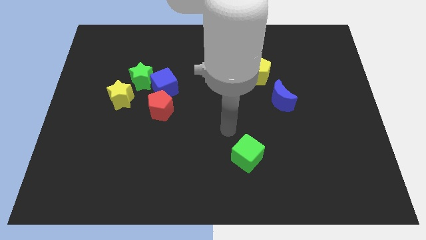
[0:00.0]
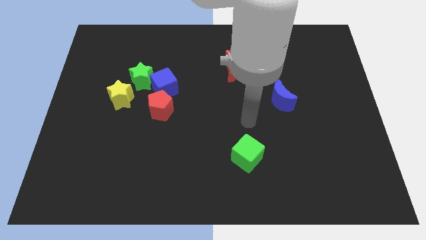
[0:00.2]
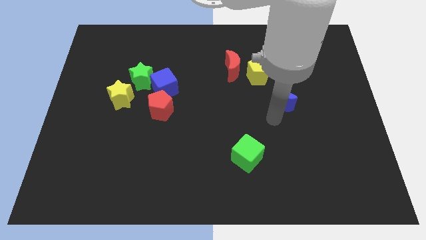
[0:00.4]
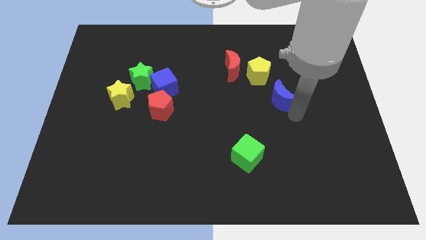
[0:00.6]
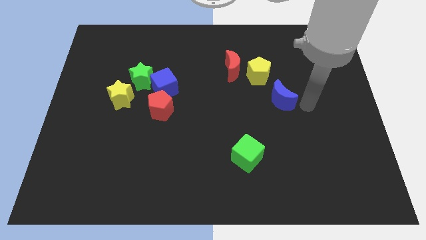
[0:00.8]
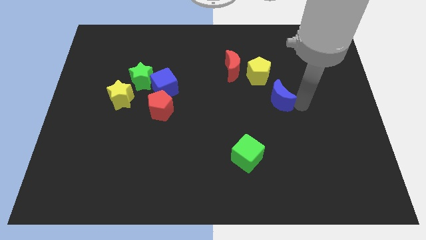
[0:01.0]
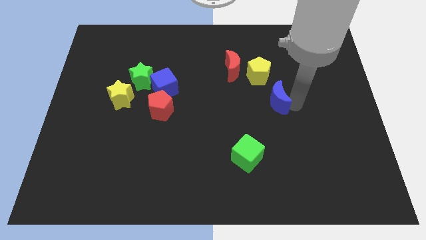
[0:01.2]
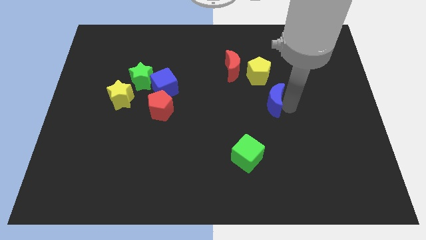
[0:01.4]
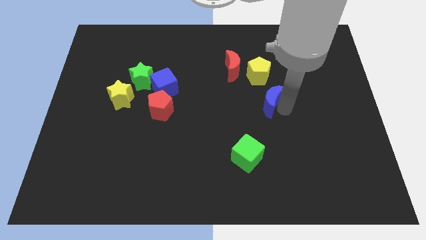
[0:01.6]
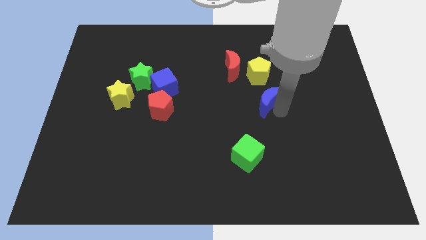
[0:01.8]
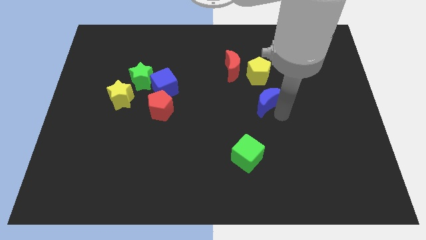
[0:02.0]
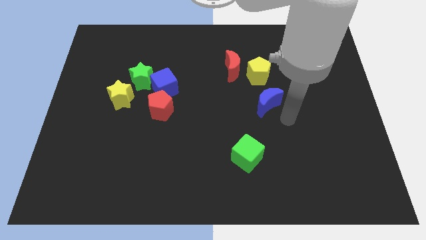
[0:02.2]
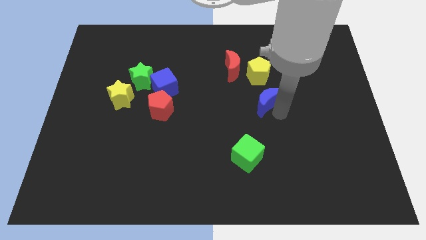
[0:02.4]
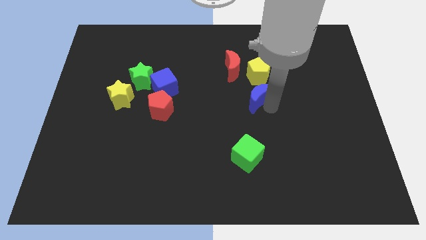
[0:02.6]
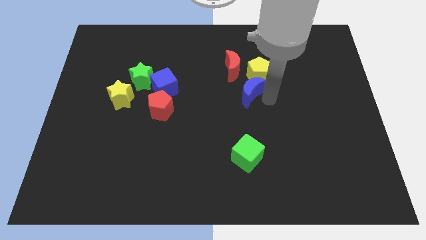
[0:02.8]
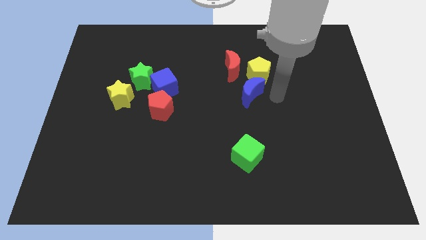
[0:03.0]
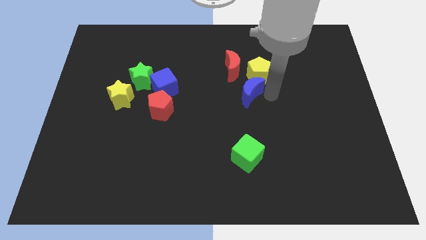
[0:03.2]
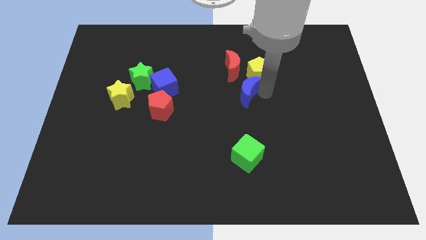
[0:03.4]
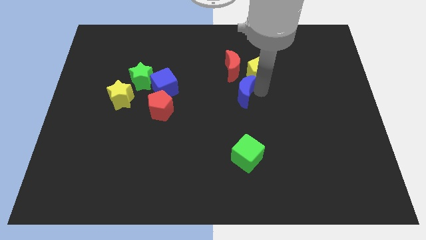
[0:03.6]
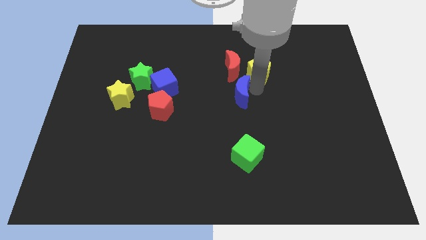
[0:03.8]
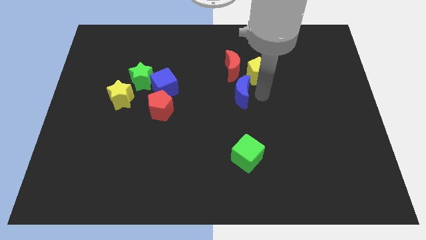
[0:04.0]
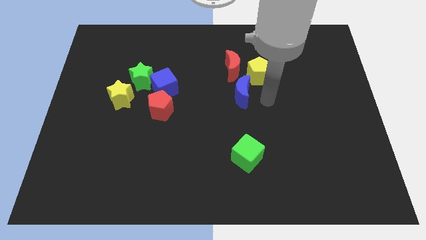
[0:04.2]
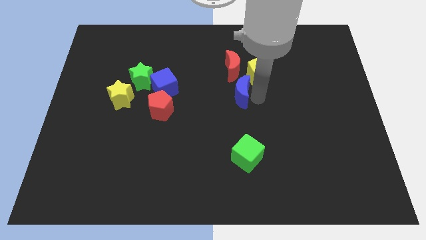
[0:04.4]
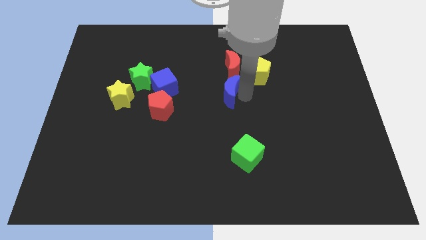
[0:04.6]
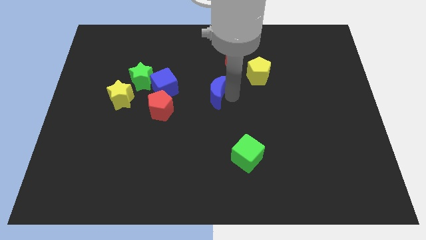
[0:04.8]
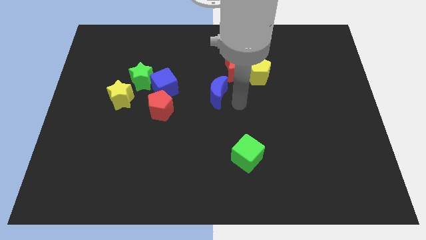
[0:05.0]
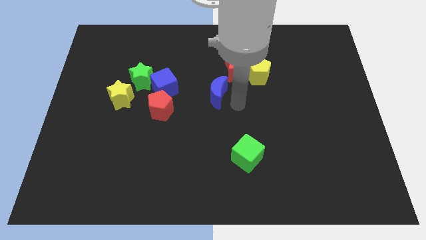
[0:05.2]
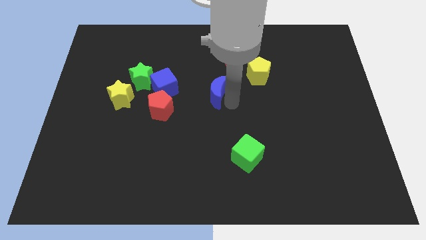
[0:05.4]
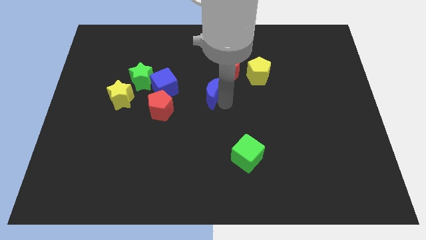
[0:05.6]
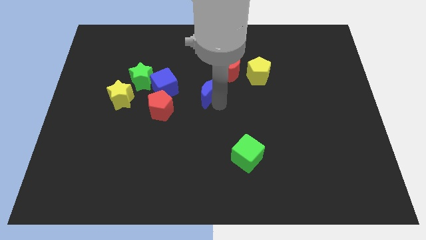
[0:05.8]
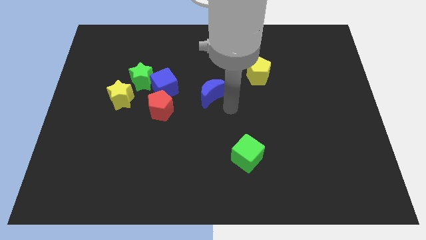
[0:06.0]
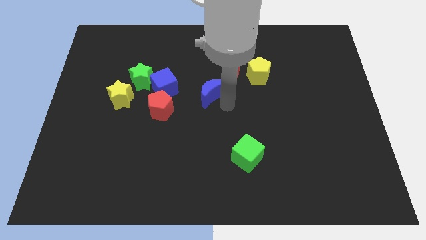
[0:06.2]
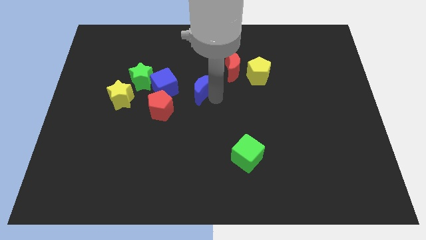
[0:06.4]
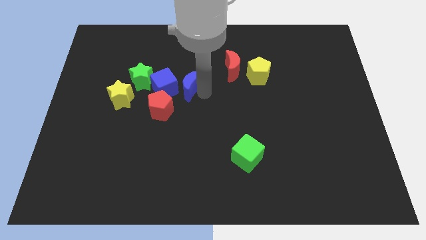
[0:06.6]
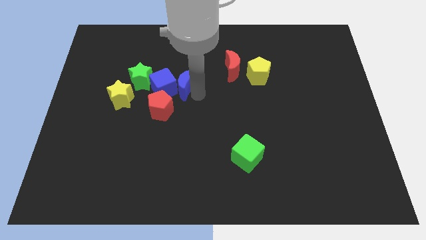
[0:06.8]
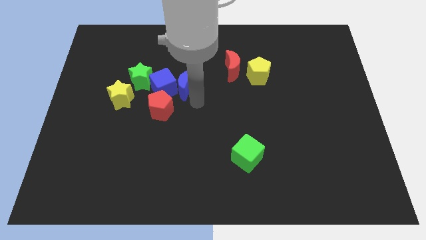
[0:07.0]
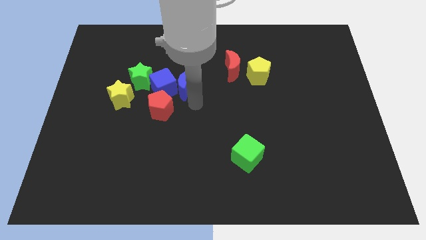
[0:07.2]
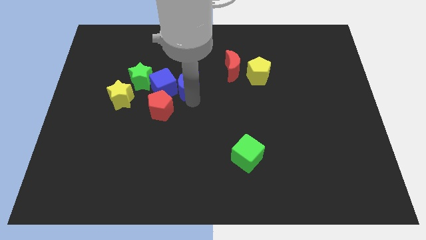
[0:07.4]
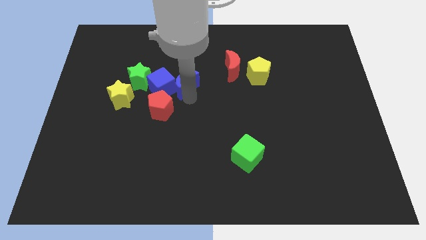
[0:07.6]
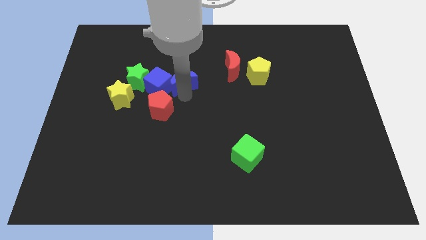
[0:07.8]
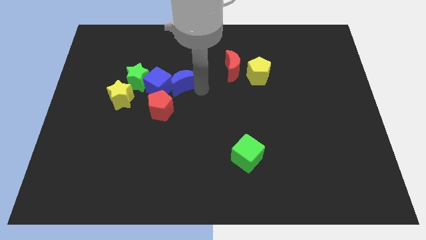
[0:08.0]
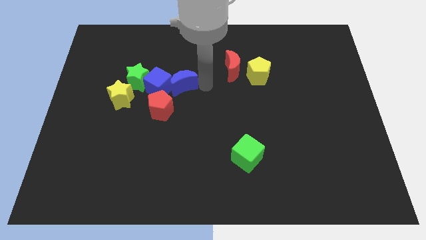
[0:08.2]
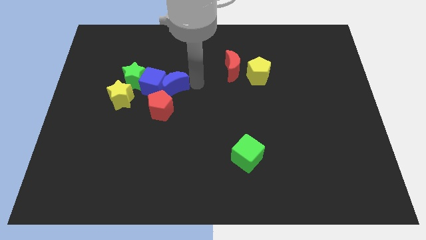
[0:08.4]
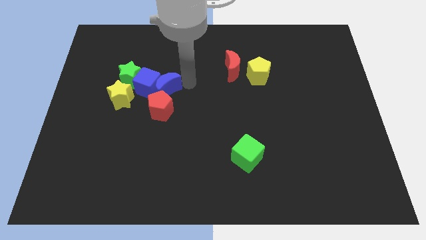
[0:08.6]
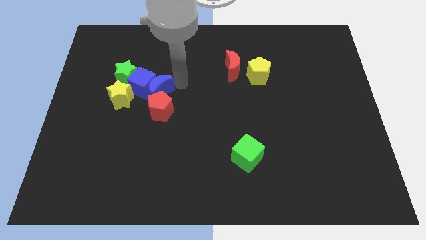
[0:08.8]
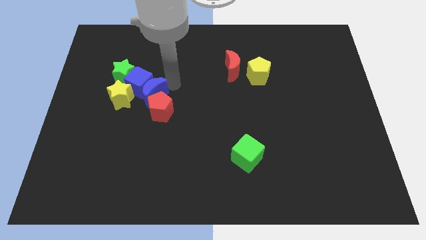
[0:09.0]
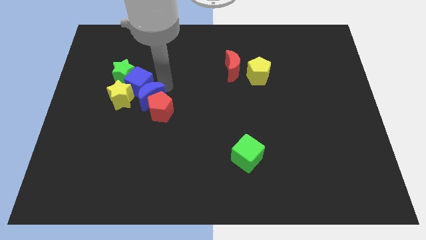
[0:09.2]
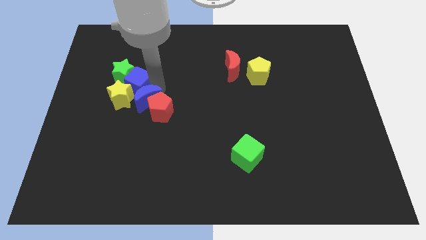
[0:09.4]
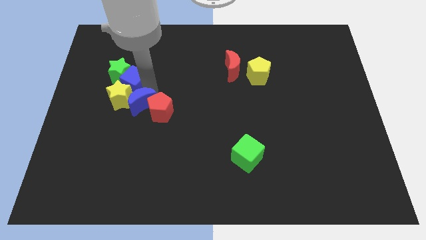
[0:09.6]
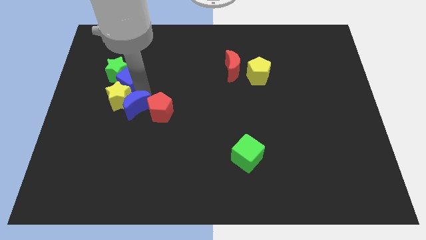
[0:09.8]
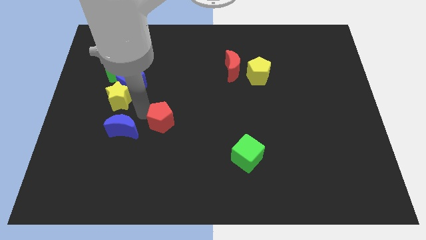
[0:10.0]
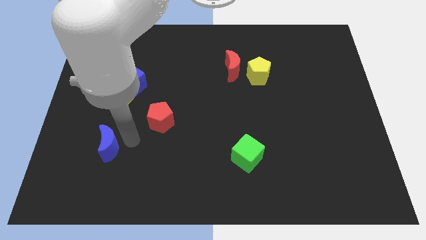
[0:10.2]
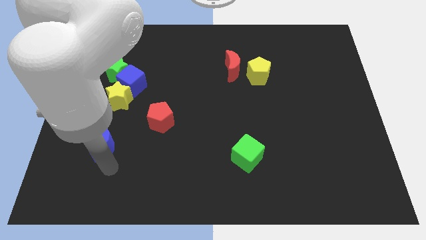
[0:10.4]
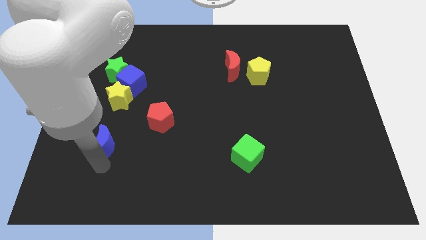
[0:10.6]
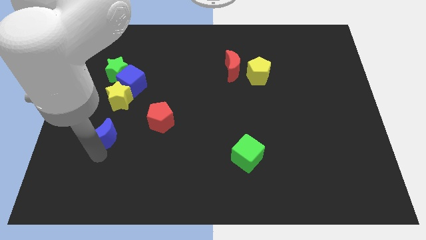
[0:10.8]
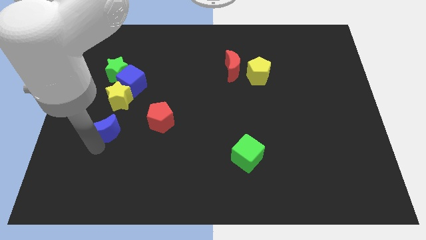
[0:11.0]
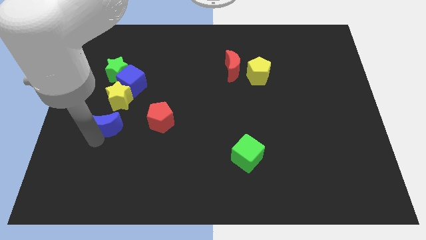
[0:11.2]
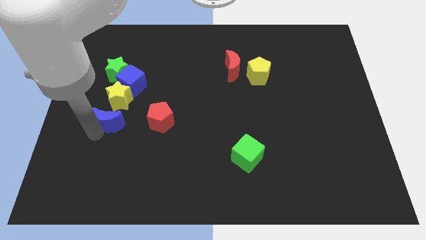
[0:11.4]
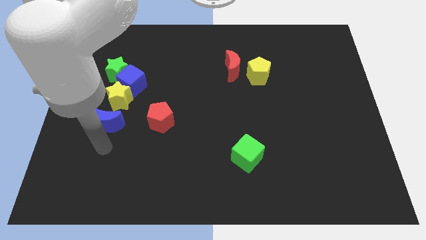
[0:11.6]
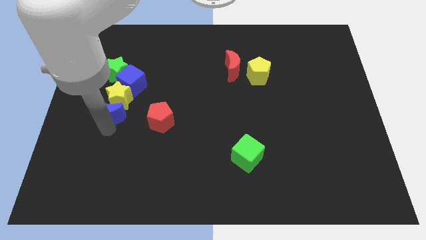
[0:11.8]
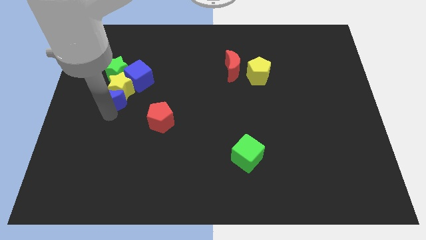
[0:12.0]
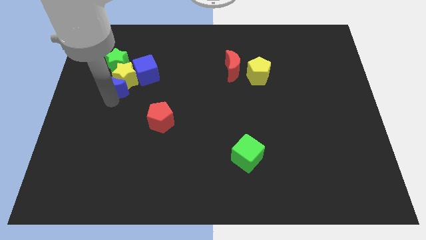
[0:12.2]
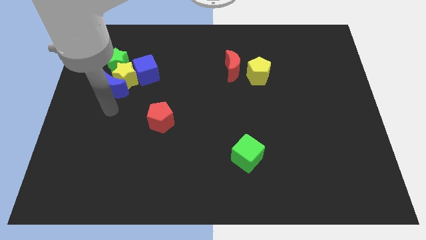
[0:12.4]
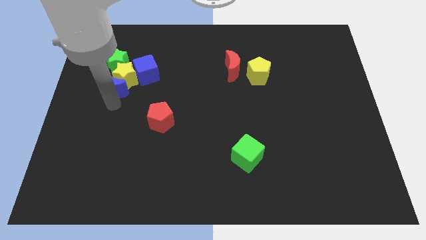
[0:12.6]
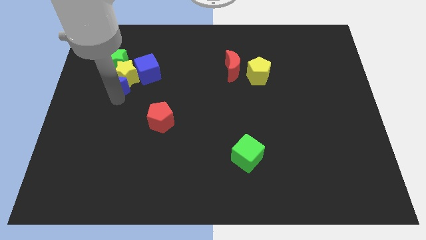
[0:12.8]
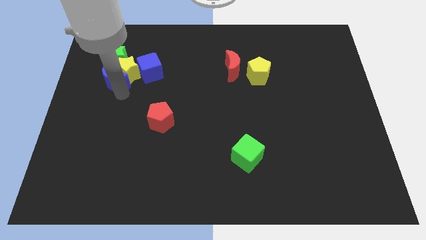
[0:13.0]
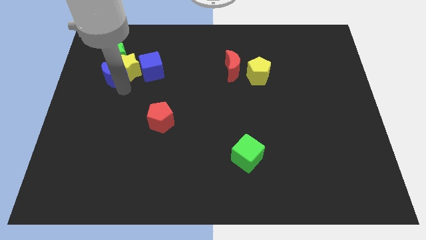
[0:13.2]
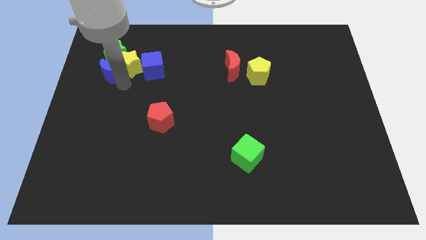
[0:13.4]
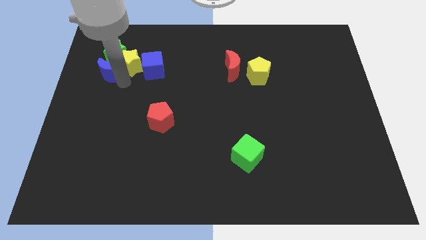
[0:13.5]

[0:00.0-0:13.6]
slide the blue moon next to the green star

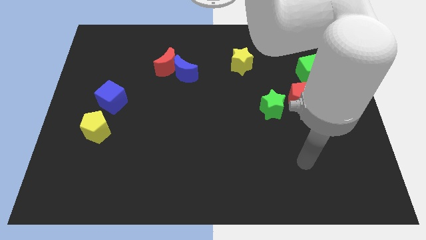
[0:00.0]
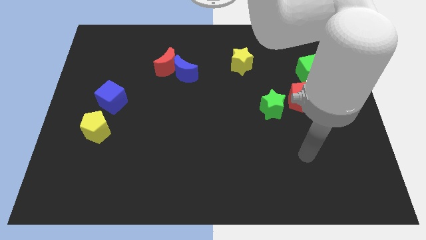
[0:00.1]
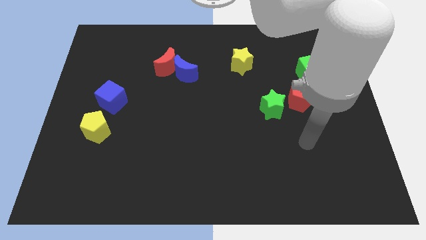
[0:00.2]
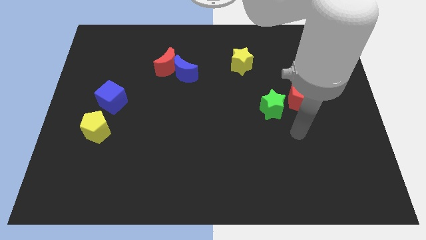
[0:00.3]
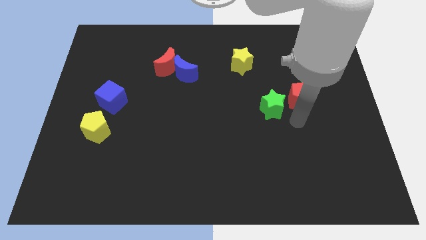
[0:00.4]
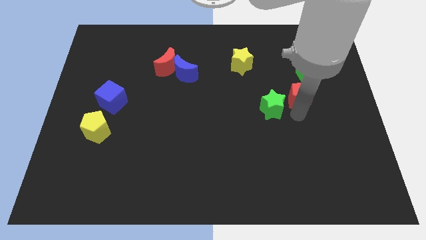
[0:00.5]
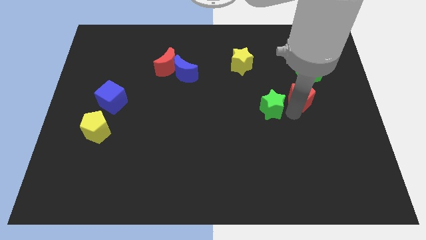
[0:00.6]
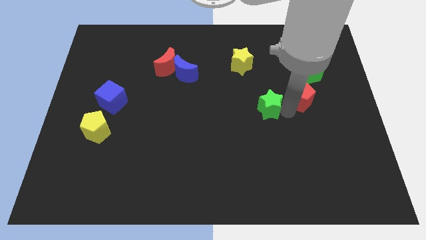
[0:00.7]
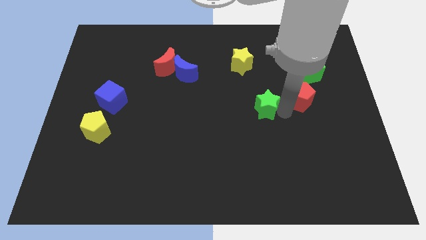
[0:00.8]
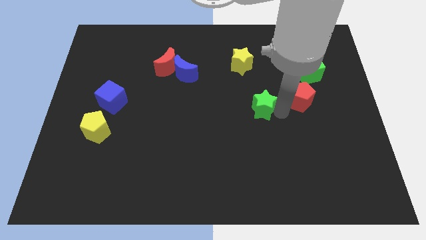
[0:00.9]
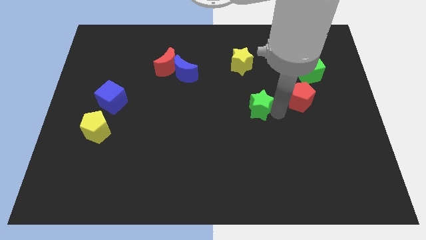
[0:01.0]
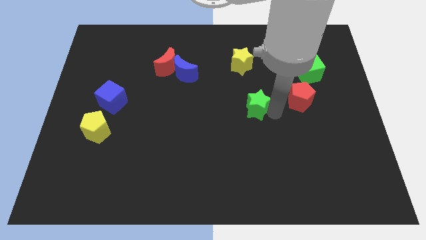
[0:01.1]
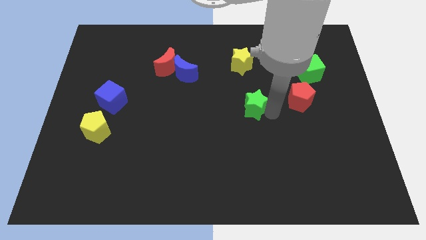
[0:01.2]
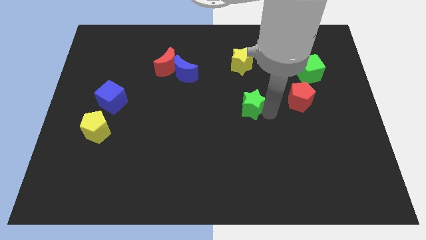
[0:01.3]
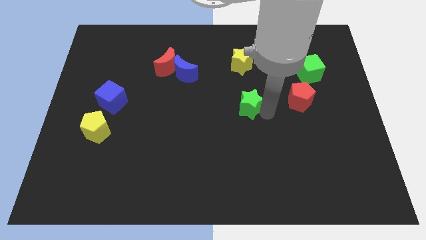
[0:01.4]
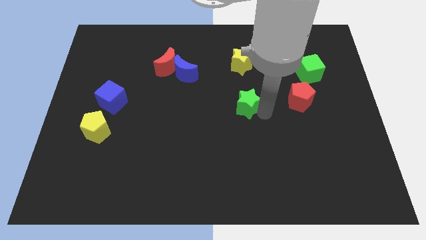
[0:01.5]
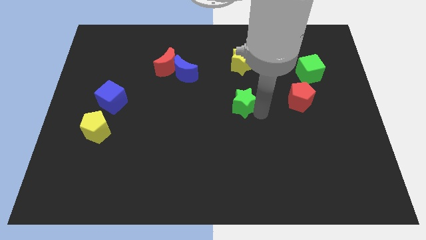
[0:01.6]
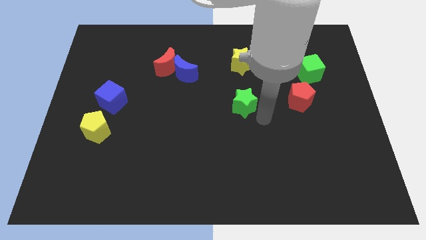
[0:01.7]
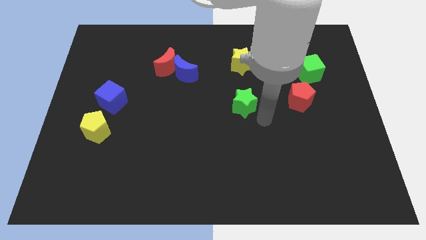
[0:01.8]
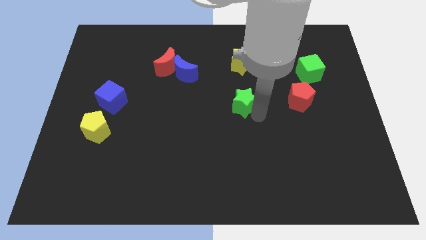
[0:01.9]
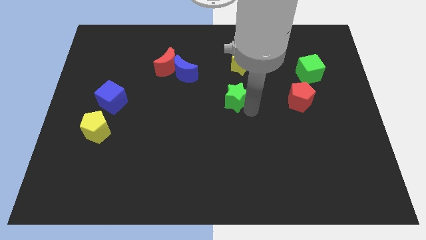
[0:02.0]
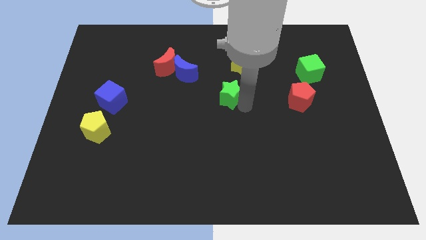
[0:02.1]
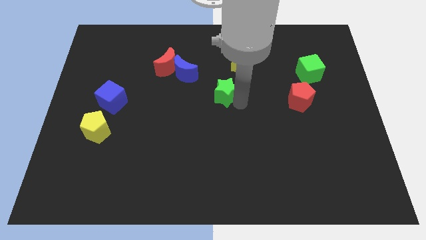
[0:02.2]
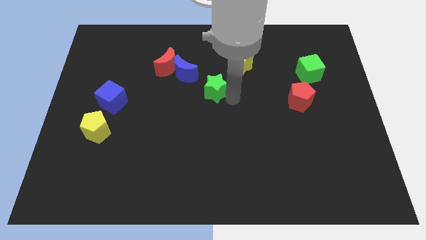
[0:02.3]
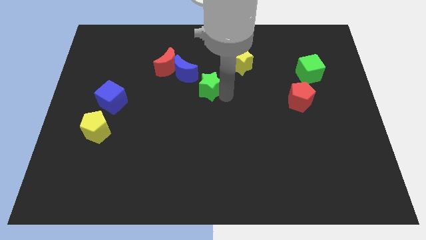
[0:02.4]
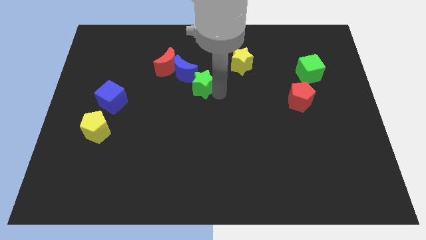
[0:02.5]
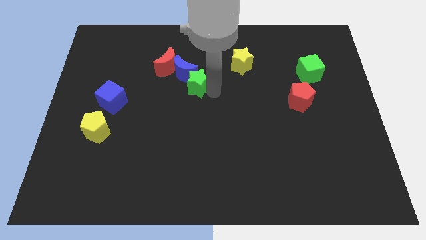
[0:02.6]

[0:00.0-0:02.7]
put the green star towards the blue moon
